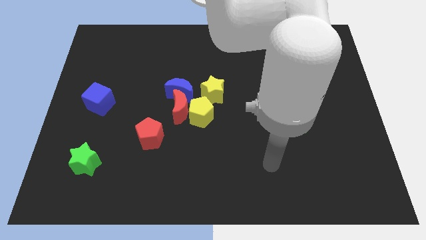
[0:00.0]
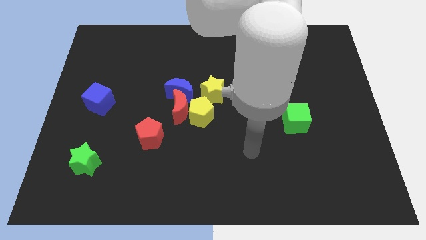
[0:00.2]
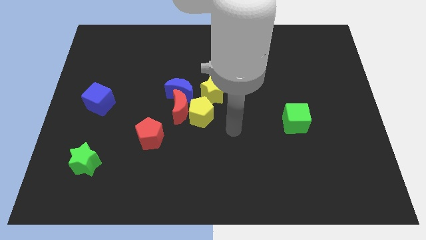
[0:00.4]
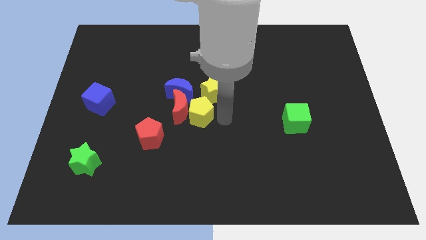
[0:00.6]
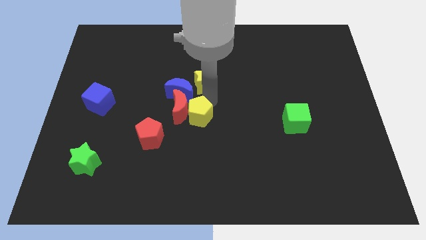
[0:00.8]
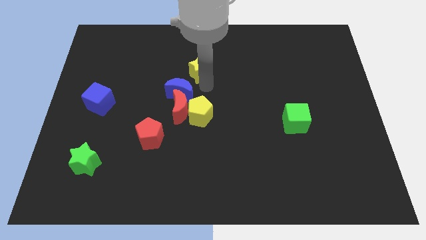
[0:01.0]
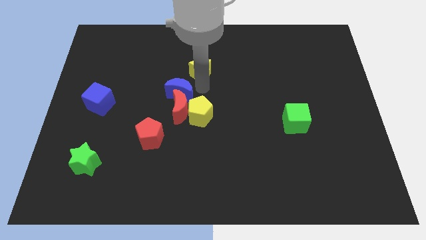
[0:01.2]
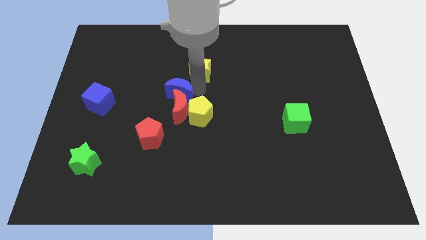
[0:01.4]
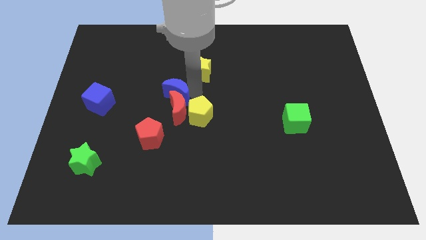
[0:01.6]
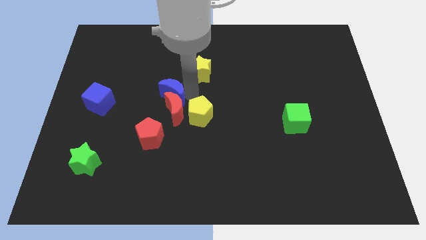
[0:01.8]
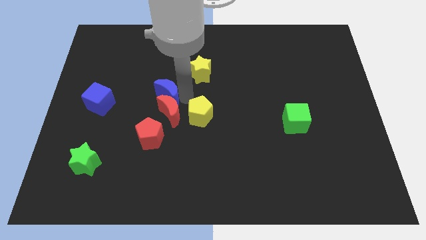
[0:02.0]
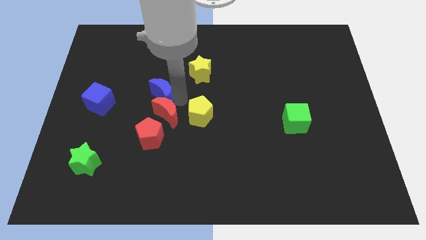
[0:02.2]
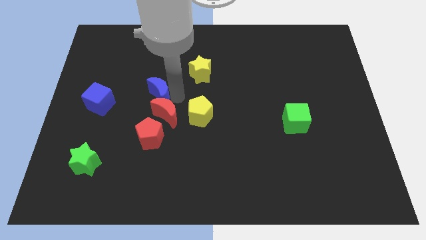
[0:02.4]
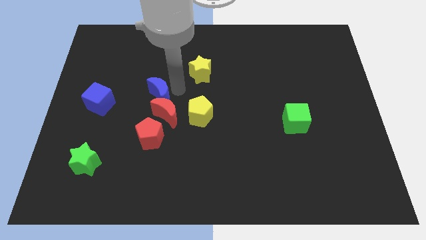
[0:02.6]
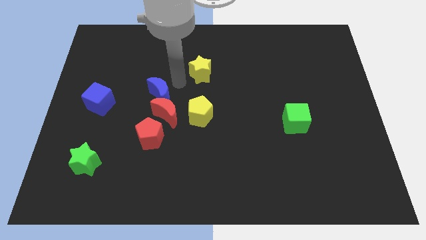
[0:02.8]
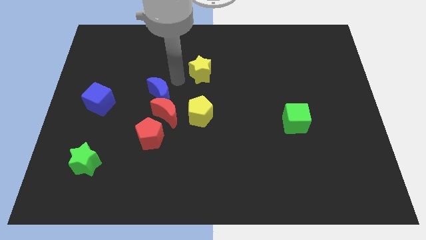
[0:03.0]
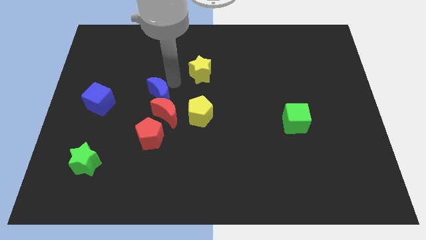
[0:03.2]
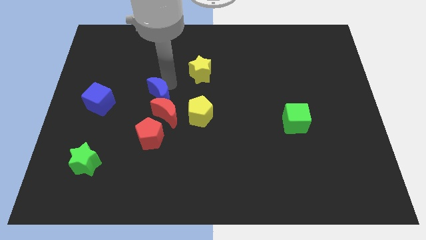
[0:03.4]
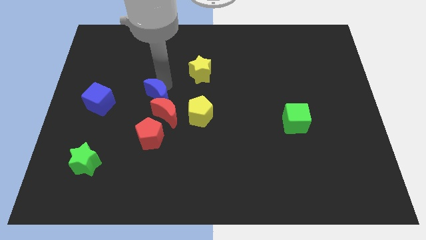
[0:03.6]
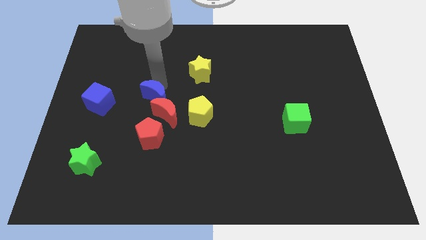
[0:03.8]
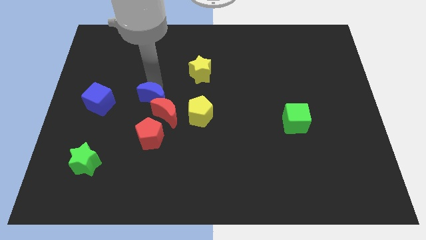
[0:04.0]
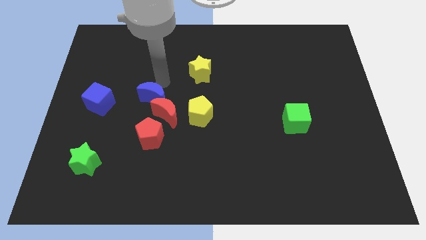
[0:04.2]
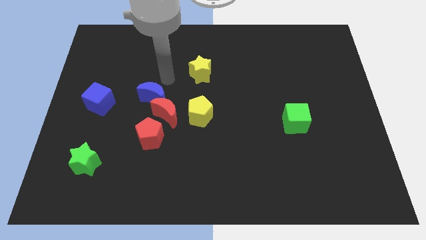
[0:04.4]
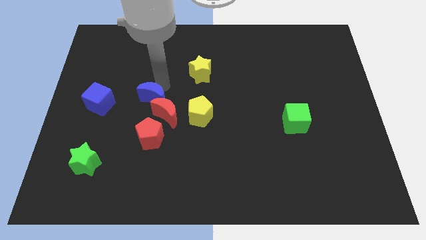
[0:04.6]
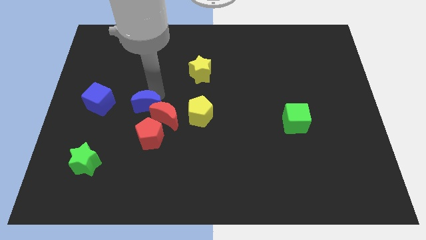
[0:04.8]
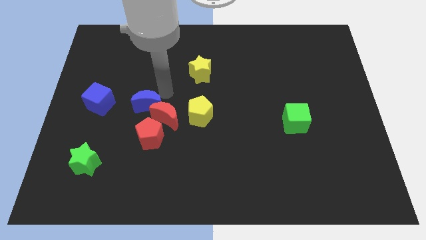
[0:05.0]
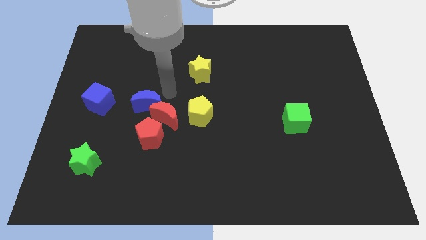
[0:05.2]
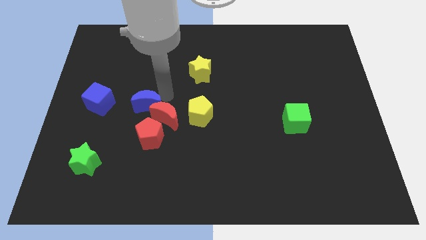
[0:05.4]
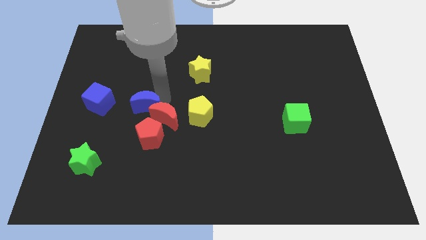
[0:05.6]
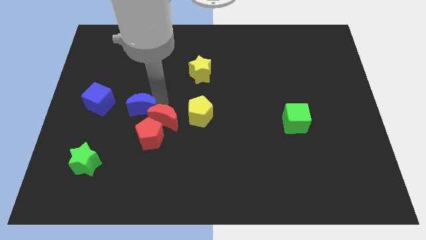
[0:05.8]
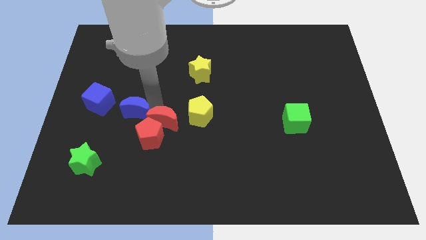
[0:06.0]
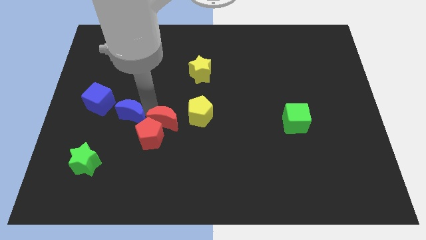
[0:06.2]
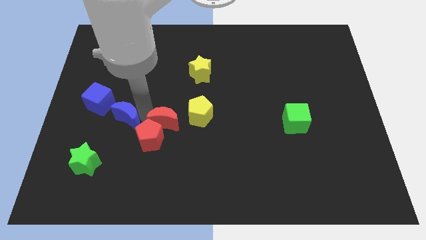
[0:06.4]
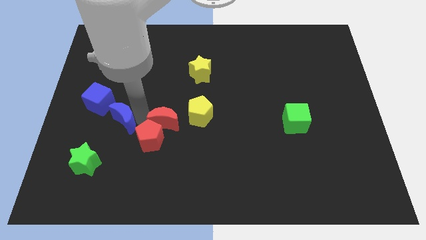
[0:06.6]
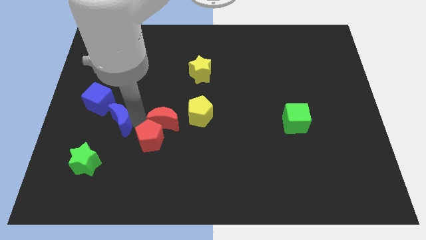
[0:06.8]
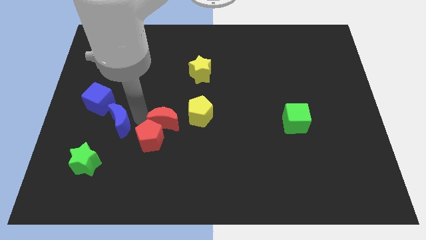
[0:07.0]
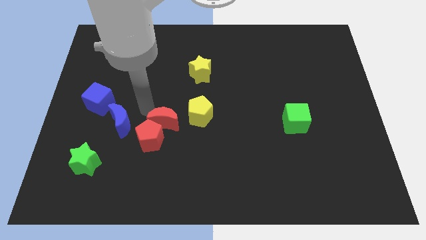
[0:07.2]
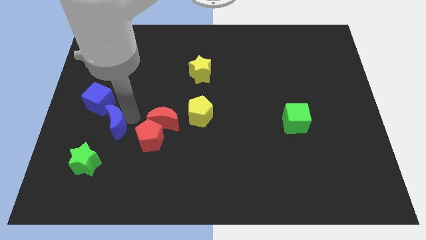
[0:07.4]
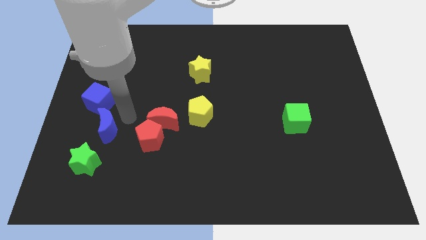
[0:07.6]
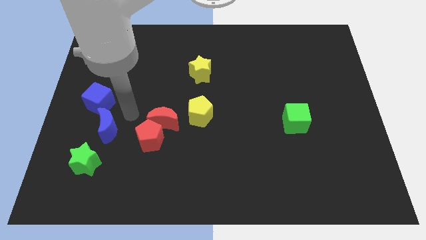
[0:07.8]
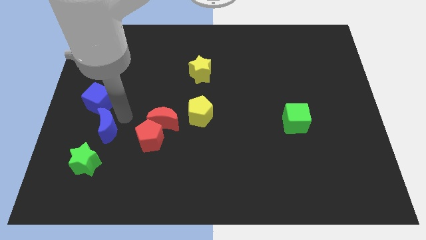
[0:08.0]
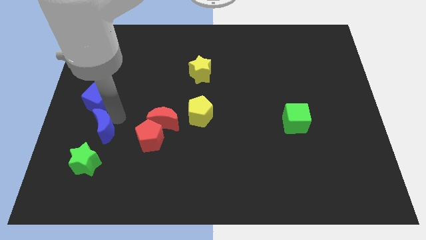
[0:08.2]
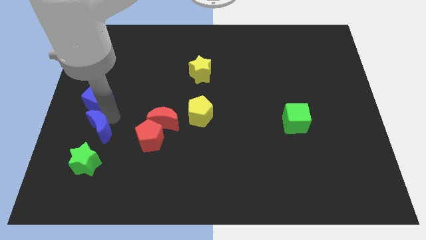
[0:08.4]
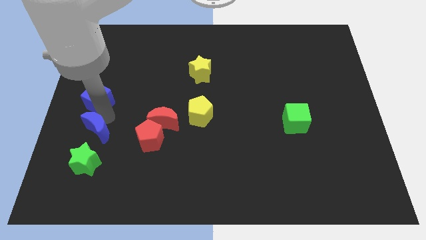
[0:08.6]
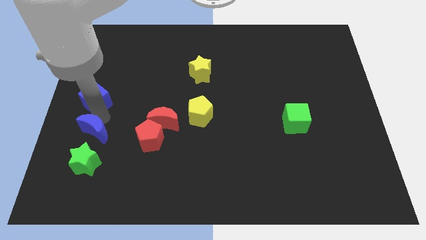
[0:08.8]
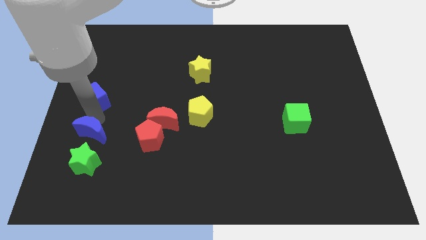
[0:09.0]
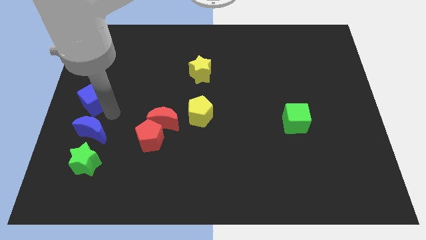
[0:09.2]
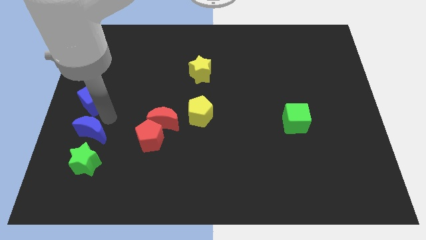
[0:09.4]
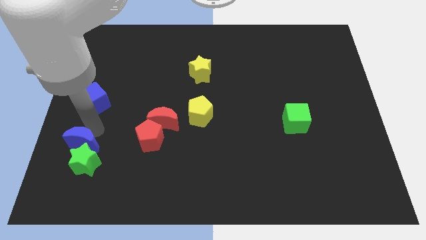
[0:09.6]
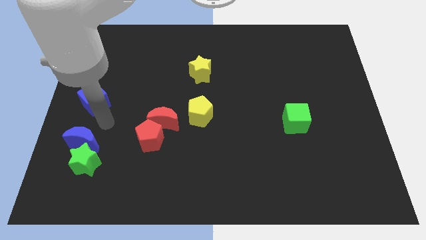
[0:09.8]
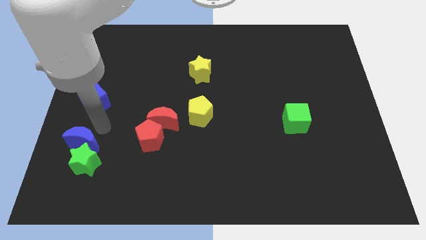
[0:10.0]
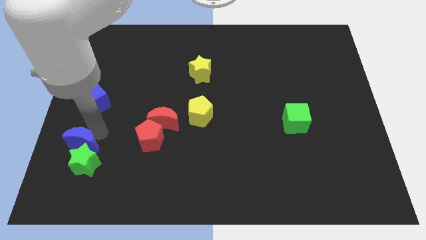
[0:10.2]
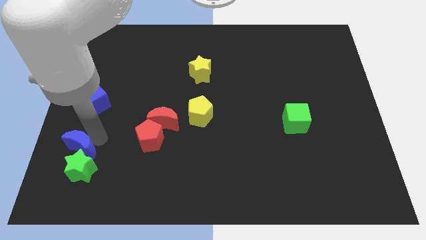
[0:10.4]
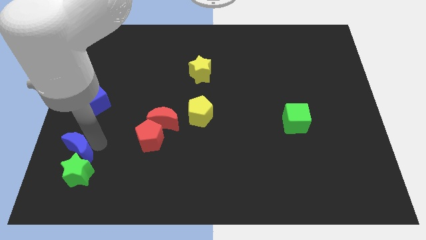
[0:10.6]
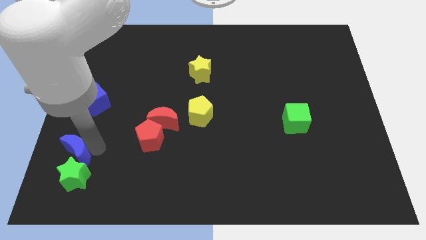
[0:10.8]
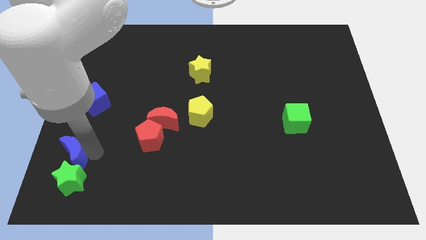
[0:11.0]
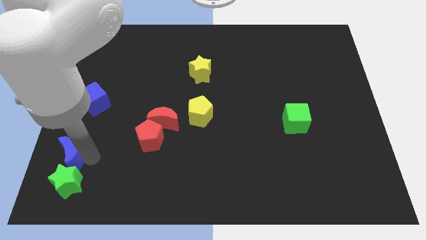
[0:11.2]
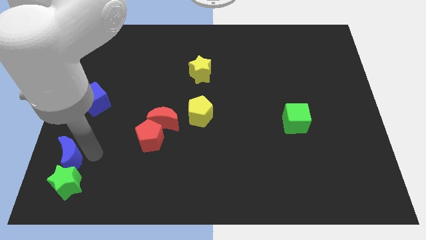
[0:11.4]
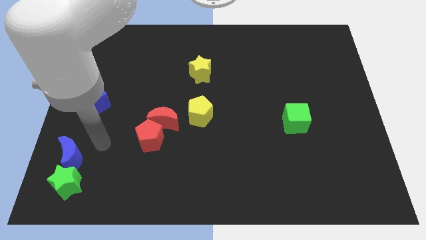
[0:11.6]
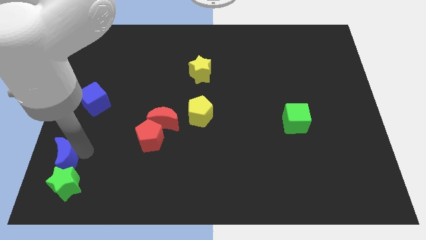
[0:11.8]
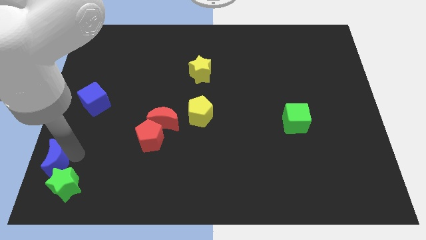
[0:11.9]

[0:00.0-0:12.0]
put the blue moon to the bottom left
